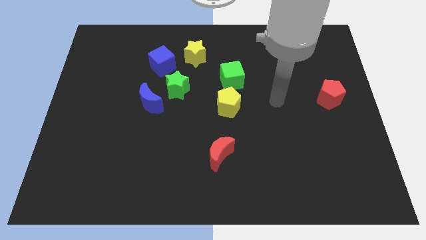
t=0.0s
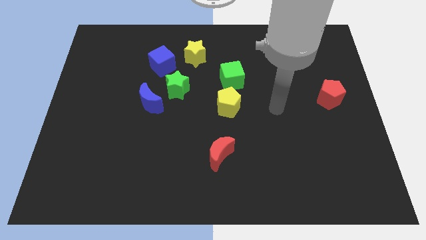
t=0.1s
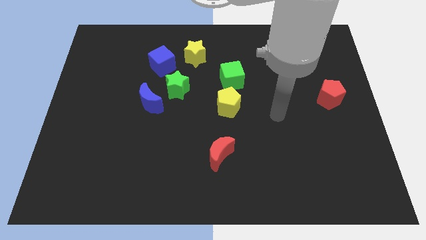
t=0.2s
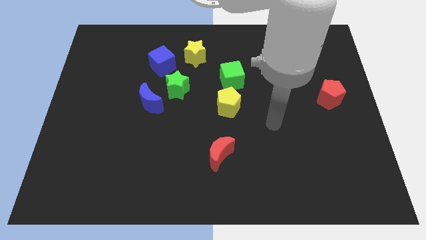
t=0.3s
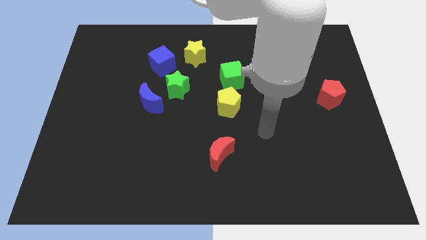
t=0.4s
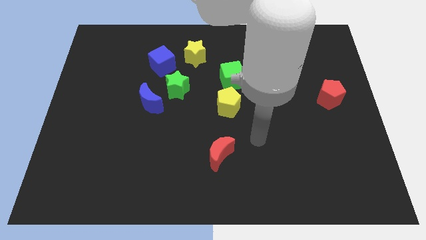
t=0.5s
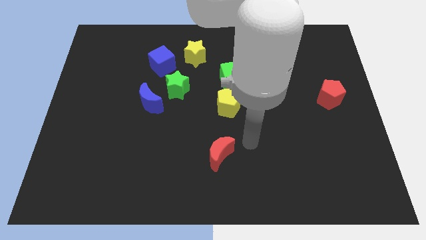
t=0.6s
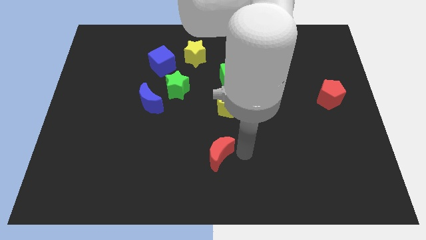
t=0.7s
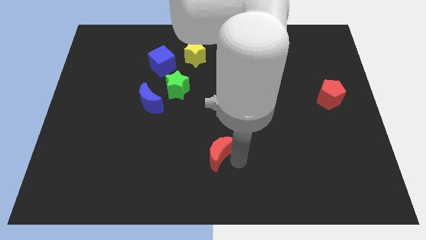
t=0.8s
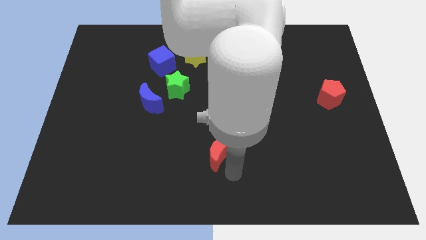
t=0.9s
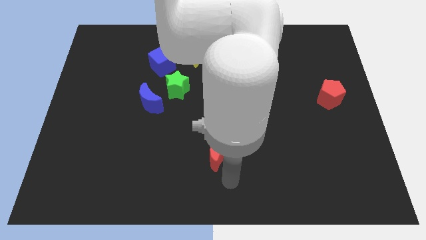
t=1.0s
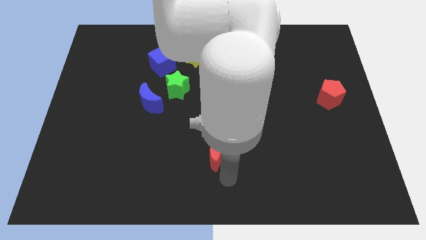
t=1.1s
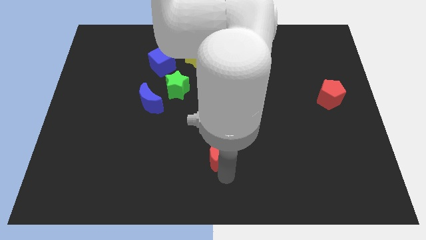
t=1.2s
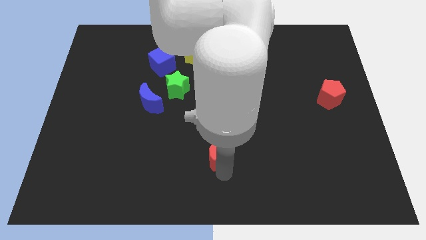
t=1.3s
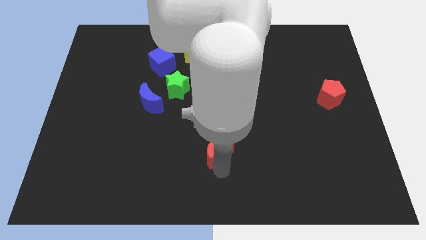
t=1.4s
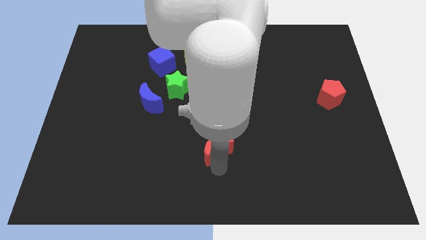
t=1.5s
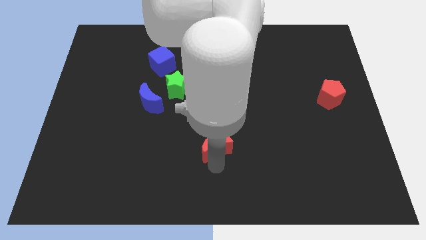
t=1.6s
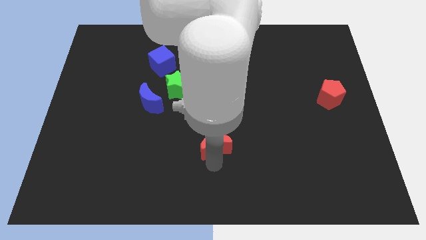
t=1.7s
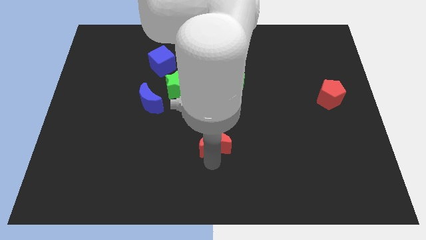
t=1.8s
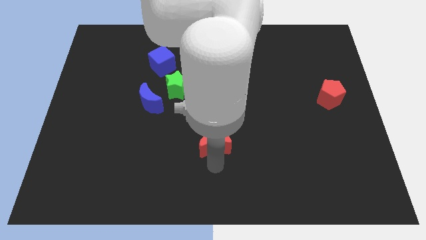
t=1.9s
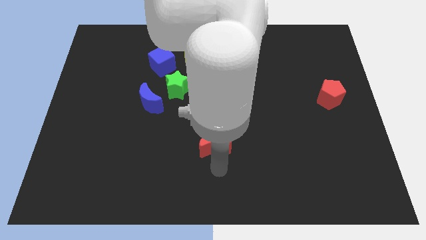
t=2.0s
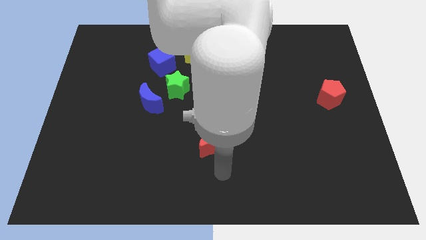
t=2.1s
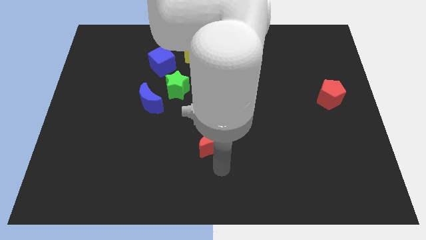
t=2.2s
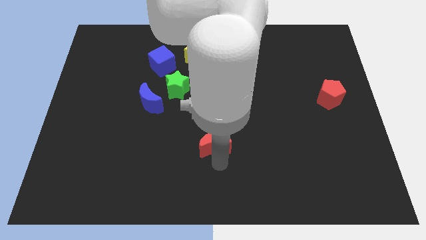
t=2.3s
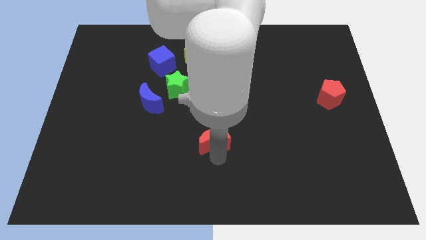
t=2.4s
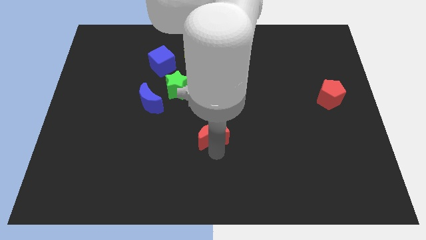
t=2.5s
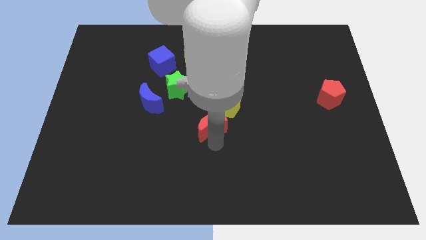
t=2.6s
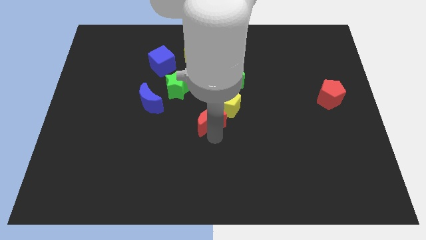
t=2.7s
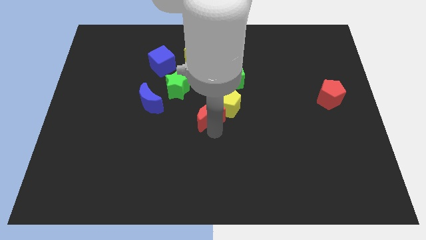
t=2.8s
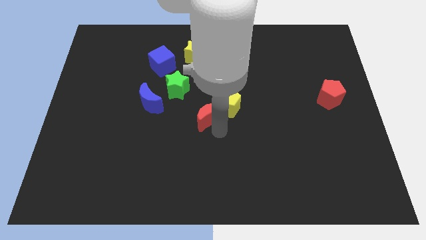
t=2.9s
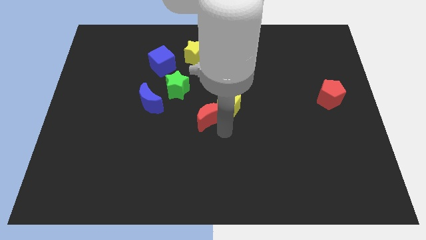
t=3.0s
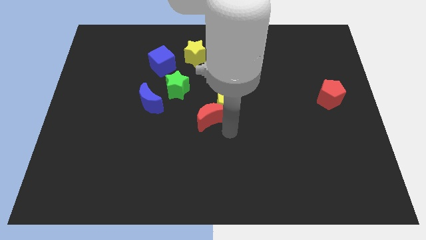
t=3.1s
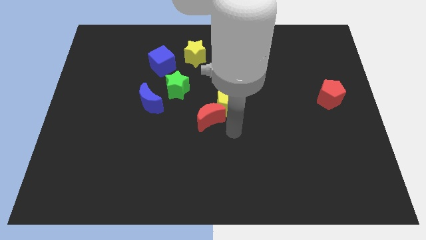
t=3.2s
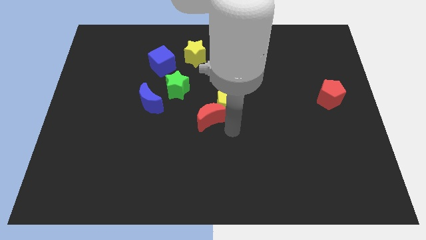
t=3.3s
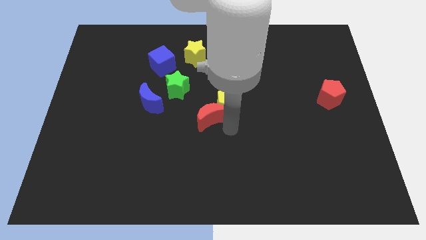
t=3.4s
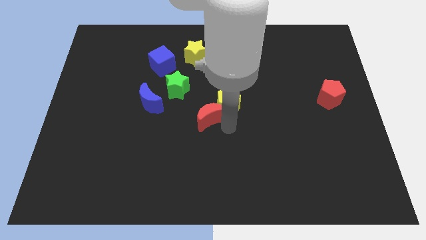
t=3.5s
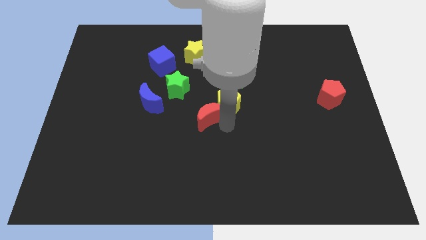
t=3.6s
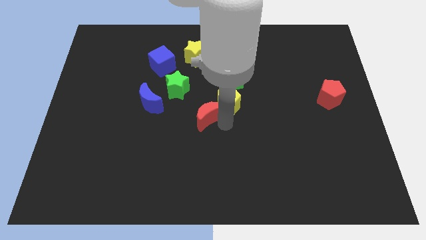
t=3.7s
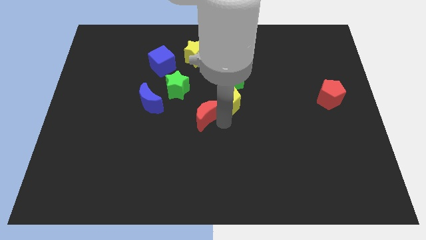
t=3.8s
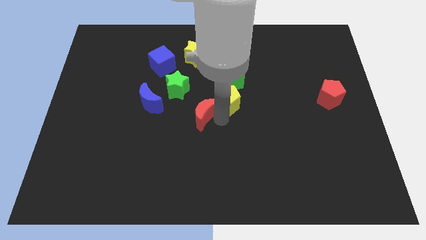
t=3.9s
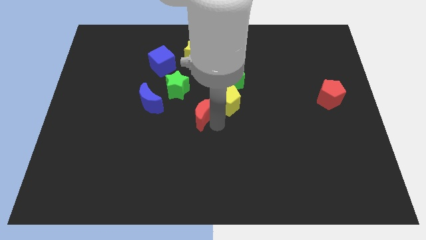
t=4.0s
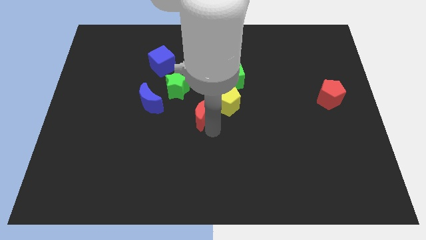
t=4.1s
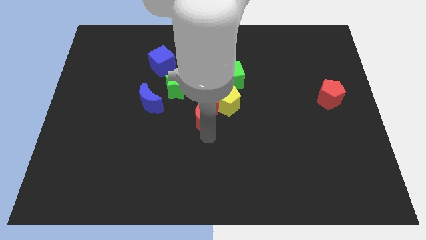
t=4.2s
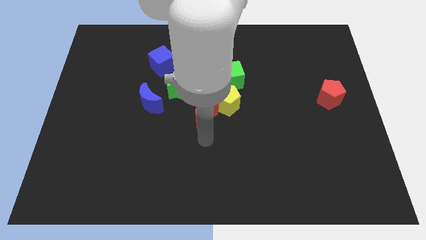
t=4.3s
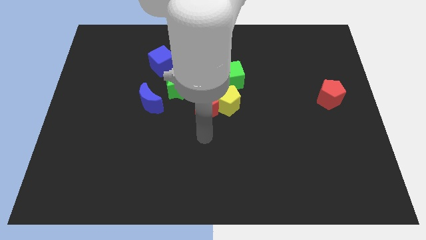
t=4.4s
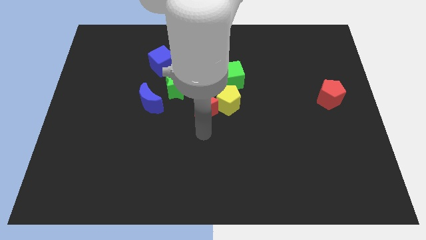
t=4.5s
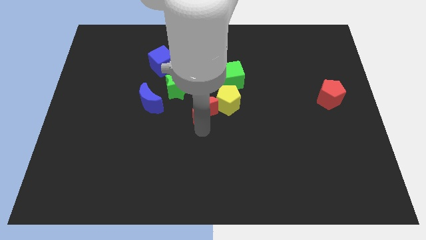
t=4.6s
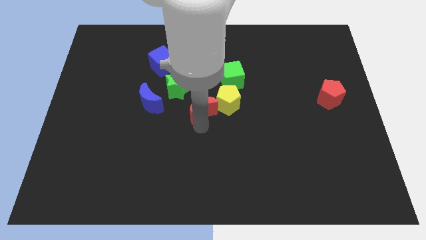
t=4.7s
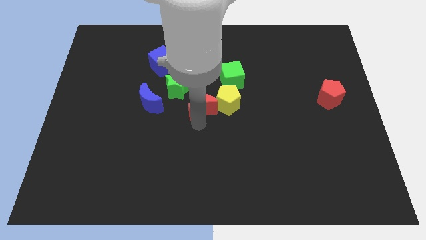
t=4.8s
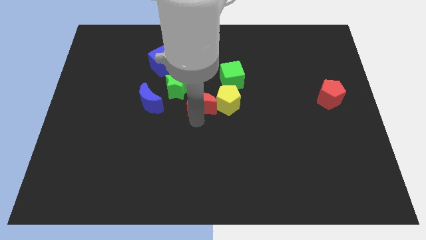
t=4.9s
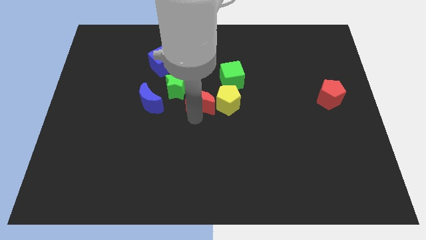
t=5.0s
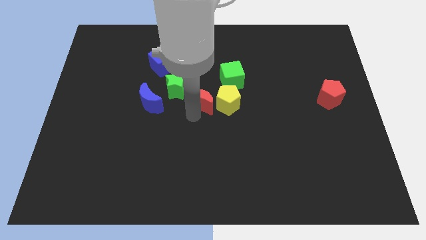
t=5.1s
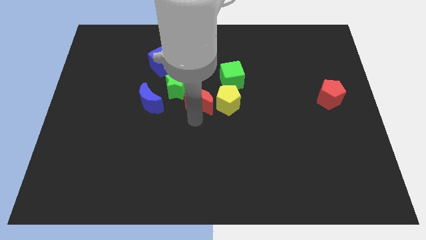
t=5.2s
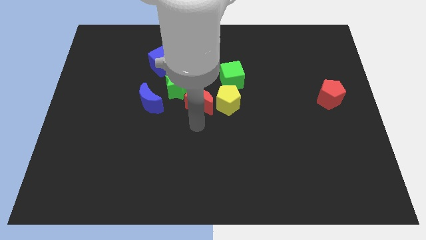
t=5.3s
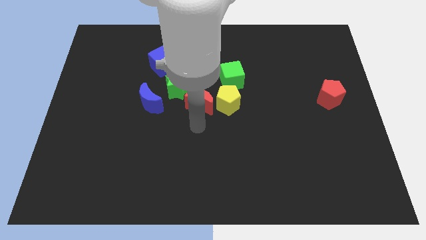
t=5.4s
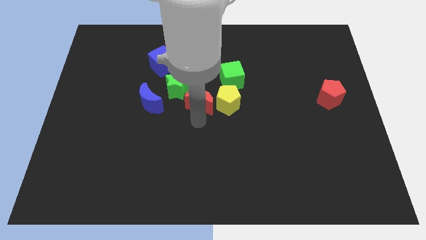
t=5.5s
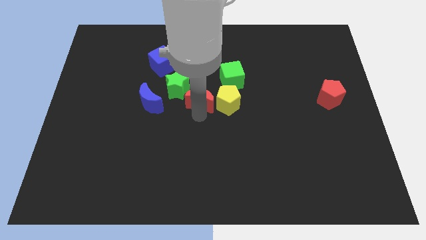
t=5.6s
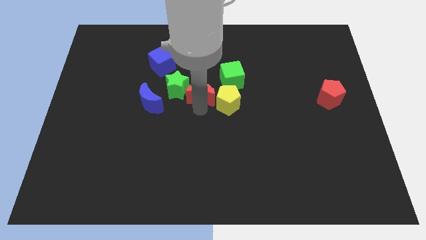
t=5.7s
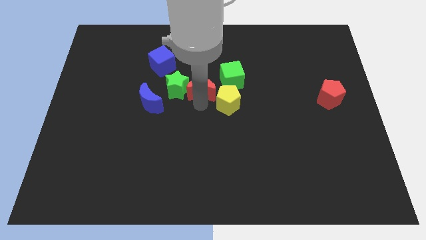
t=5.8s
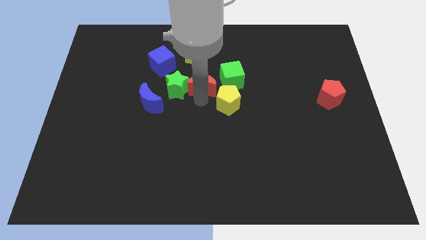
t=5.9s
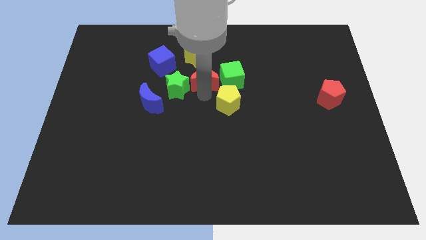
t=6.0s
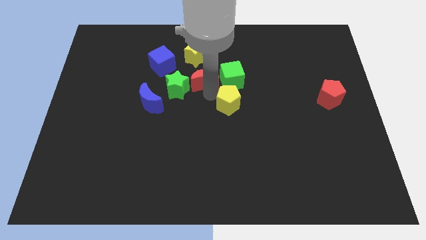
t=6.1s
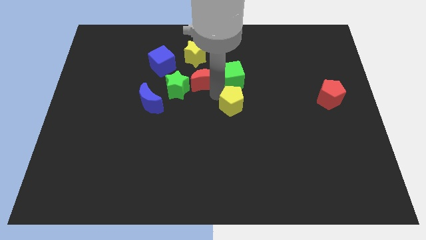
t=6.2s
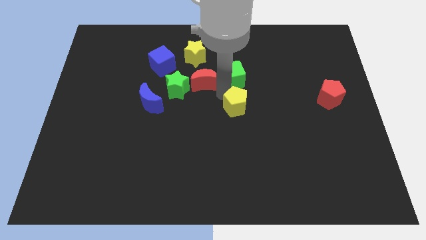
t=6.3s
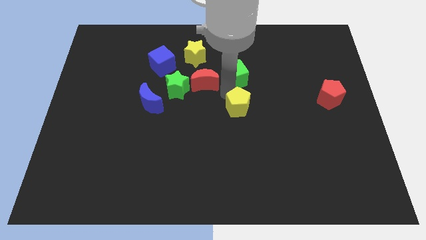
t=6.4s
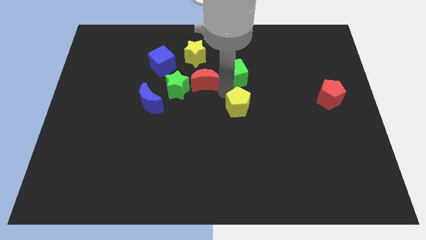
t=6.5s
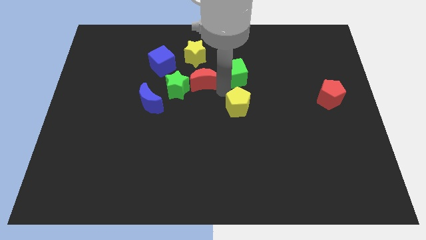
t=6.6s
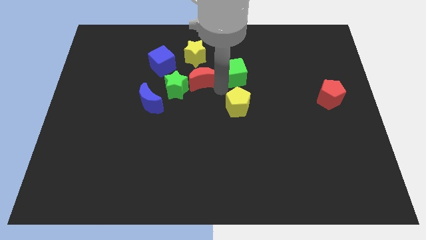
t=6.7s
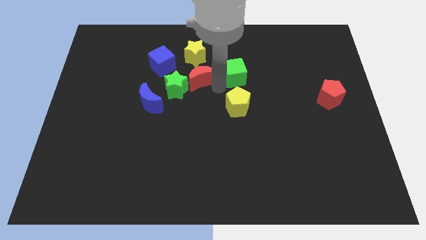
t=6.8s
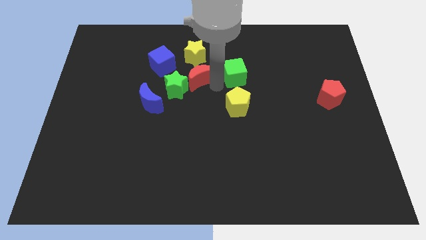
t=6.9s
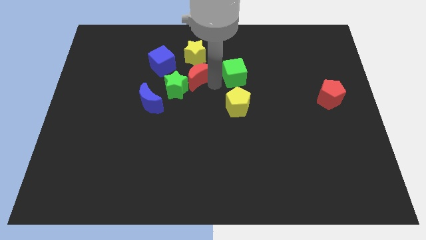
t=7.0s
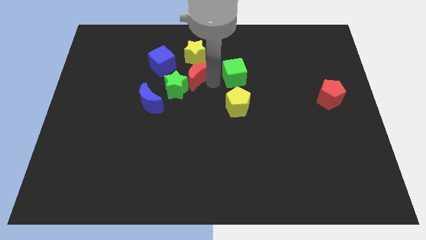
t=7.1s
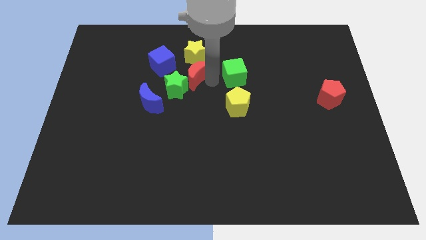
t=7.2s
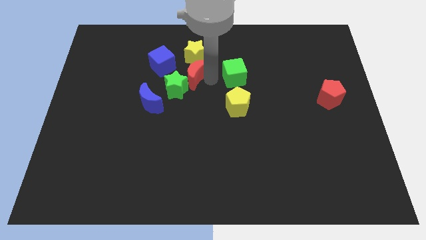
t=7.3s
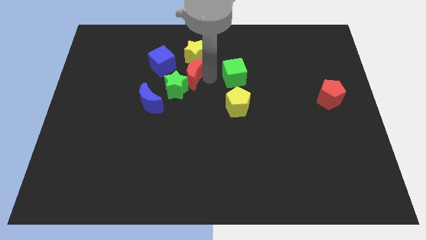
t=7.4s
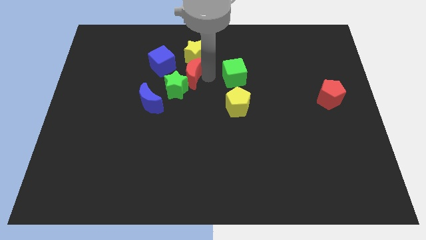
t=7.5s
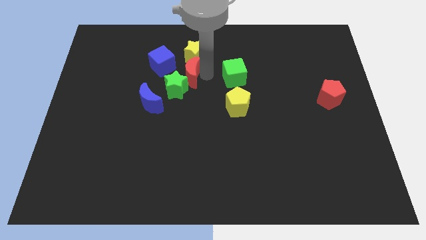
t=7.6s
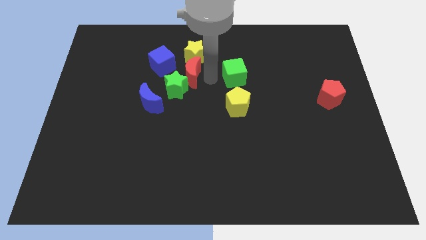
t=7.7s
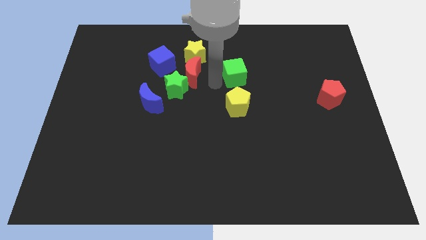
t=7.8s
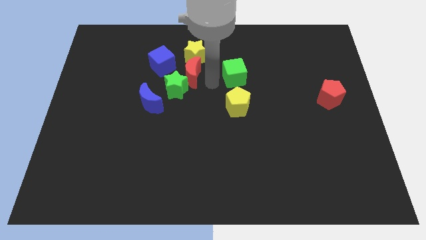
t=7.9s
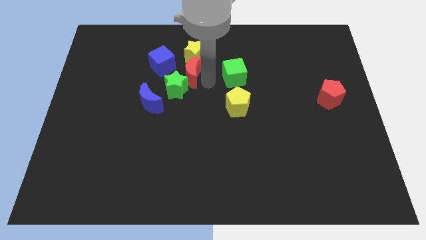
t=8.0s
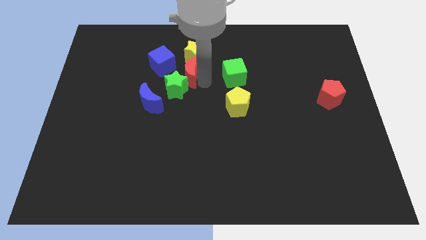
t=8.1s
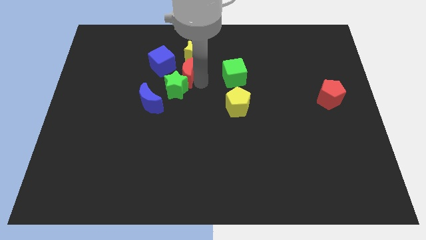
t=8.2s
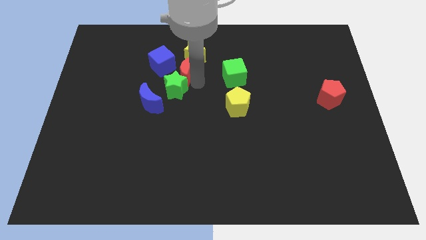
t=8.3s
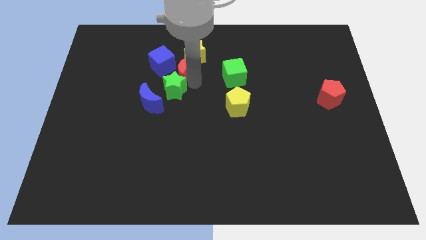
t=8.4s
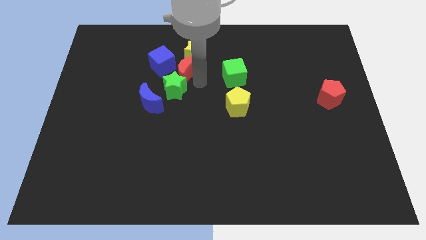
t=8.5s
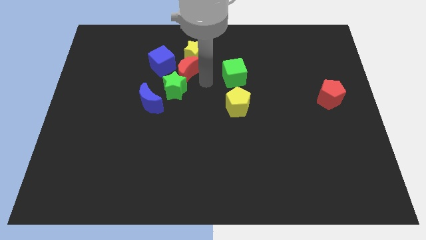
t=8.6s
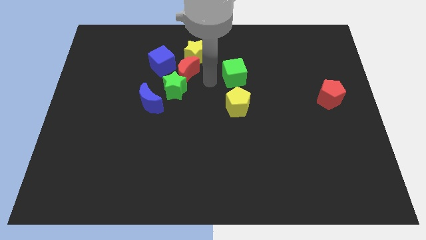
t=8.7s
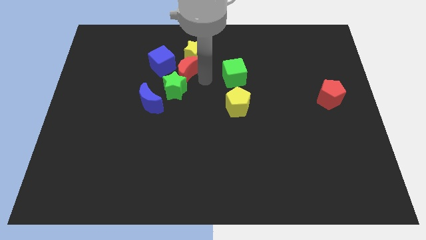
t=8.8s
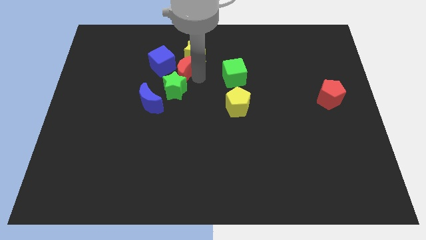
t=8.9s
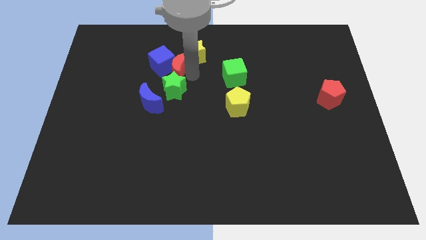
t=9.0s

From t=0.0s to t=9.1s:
slide the red moon next to the blue cube
